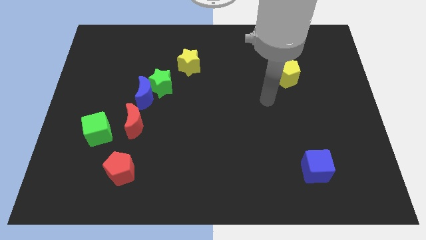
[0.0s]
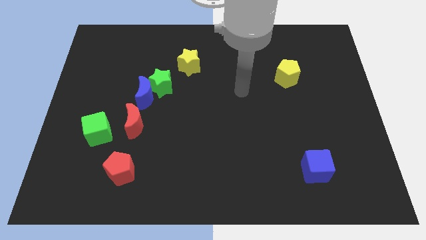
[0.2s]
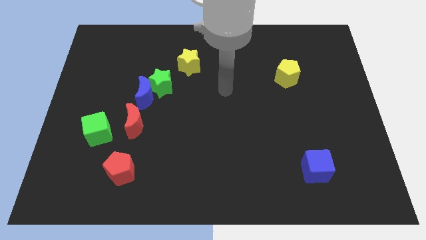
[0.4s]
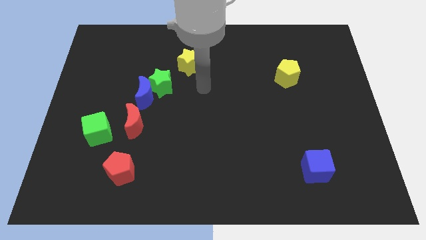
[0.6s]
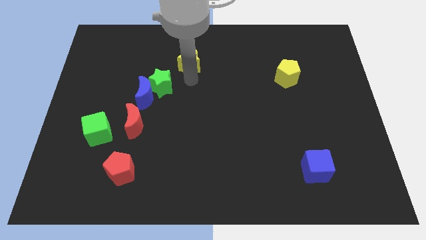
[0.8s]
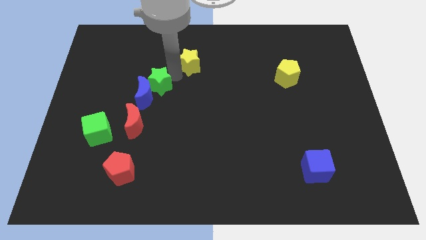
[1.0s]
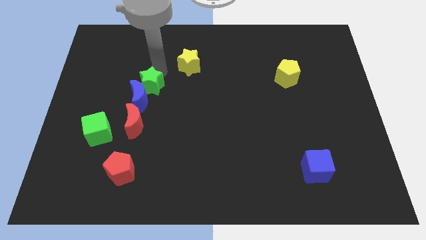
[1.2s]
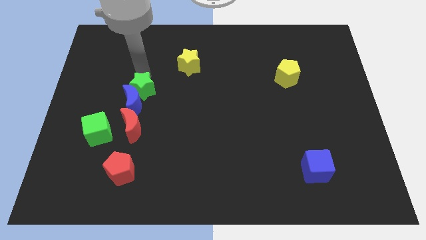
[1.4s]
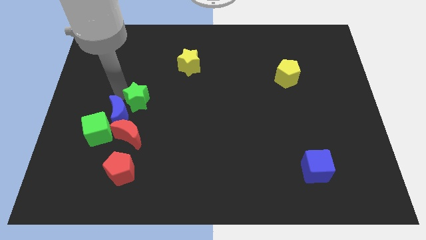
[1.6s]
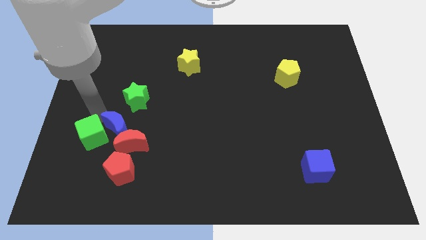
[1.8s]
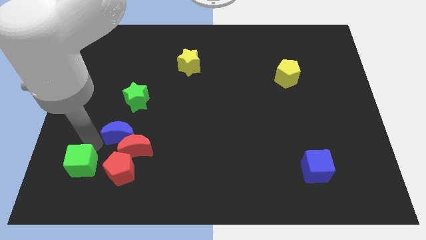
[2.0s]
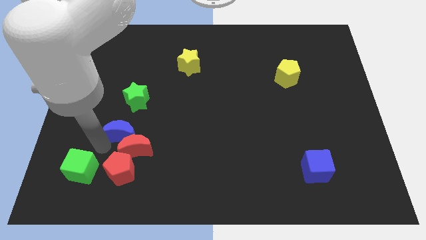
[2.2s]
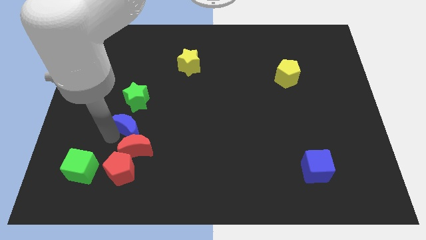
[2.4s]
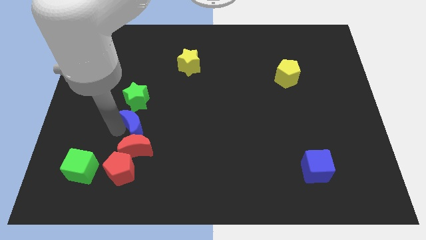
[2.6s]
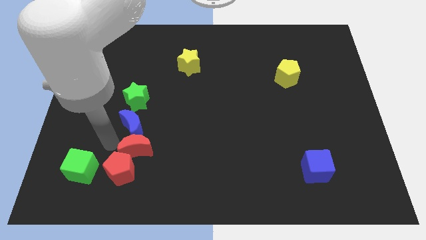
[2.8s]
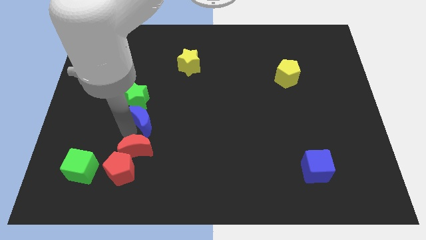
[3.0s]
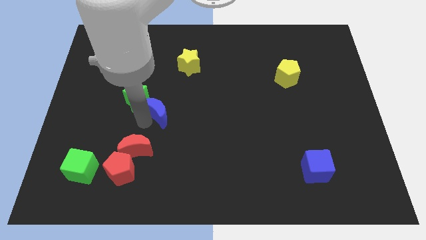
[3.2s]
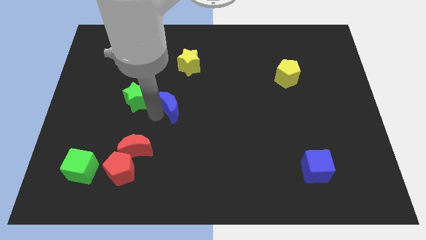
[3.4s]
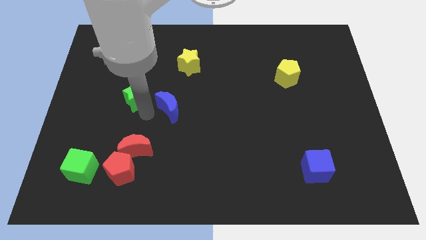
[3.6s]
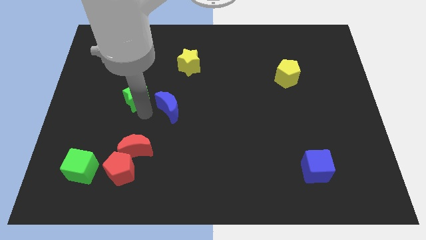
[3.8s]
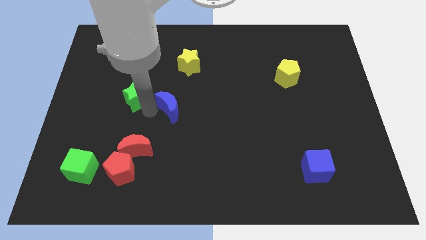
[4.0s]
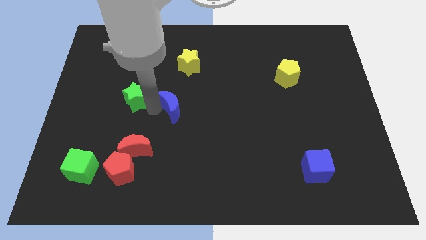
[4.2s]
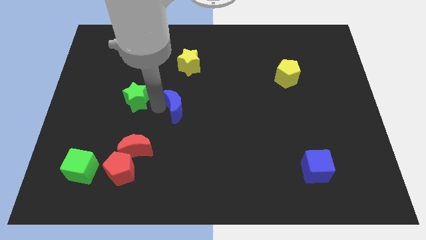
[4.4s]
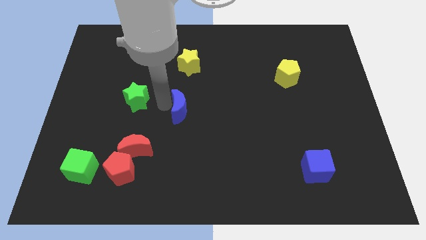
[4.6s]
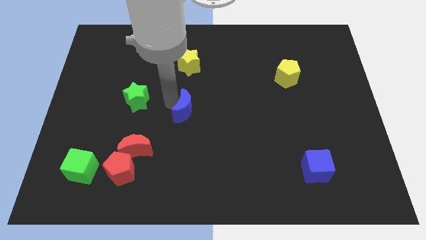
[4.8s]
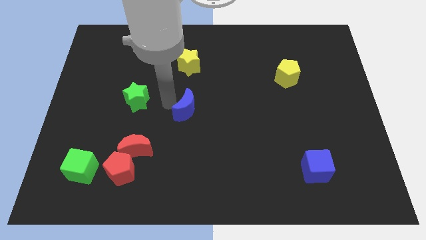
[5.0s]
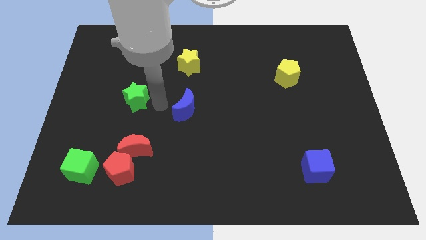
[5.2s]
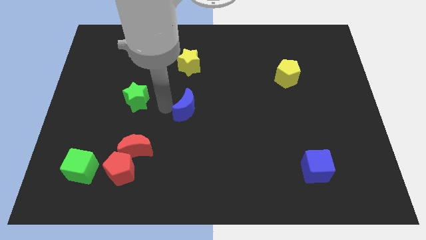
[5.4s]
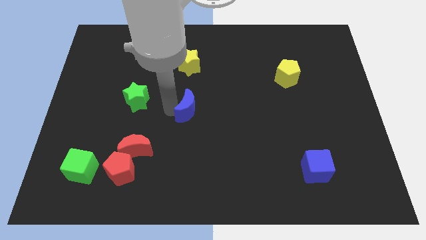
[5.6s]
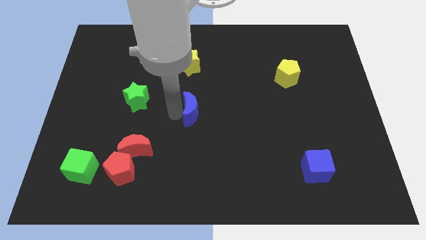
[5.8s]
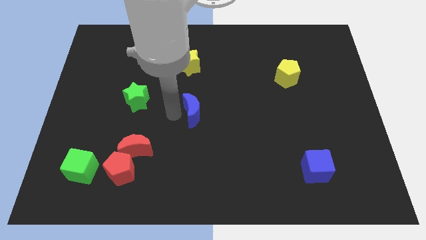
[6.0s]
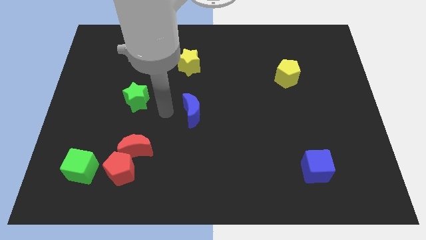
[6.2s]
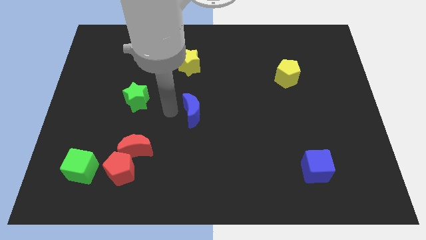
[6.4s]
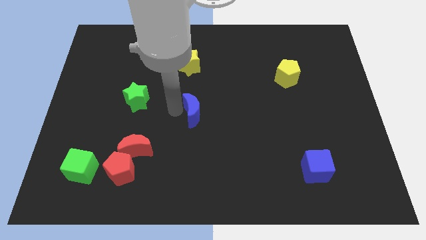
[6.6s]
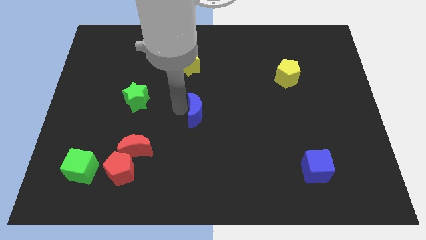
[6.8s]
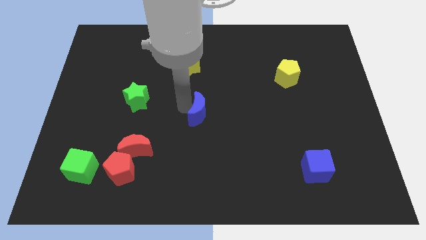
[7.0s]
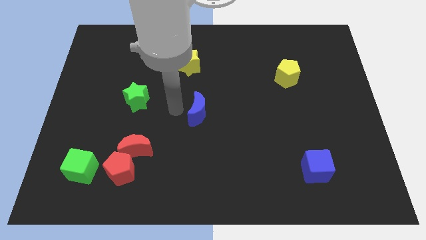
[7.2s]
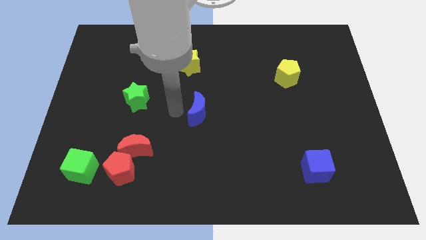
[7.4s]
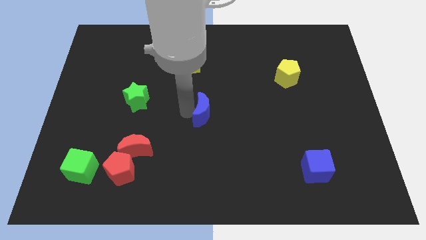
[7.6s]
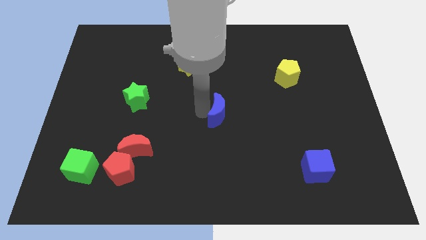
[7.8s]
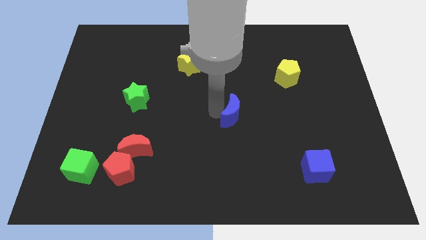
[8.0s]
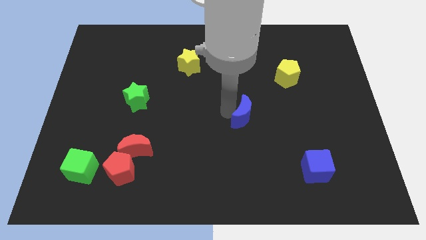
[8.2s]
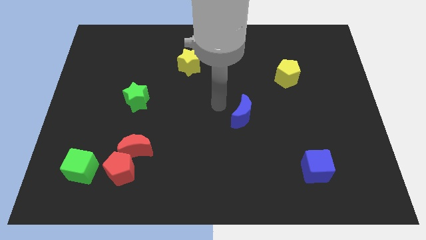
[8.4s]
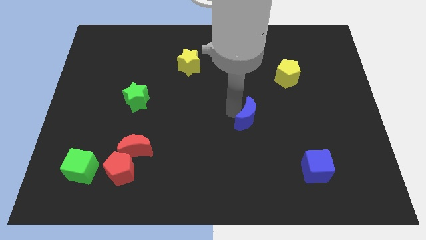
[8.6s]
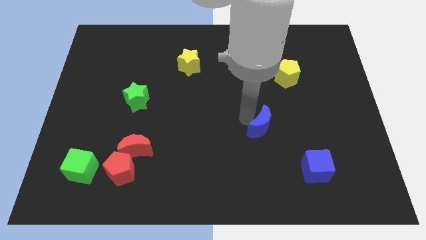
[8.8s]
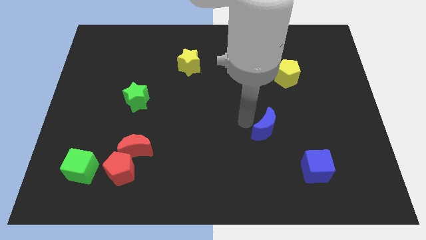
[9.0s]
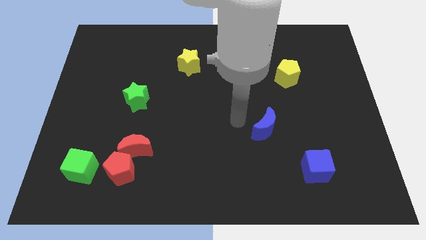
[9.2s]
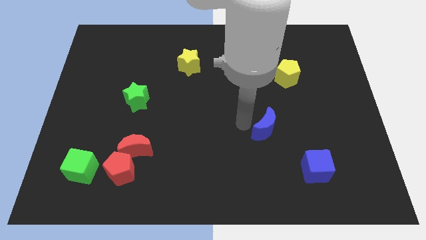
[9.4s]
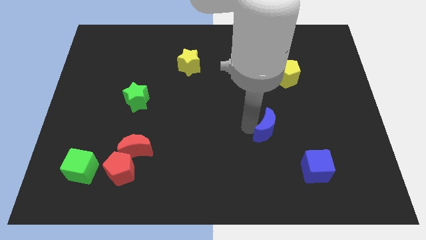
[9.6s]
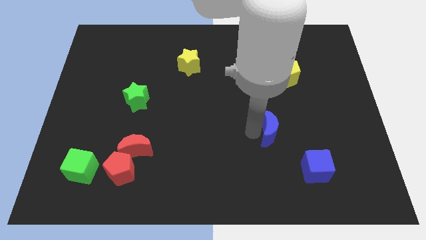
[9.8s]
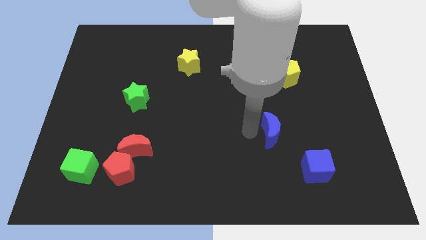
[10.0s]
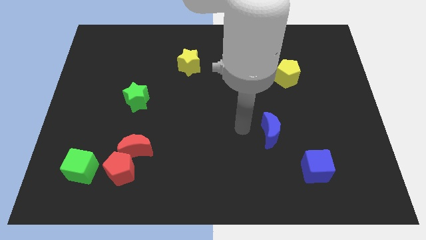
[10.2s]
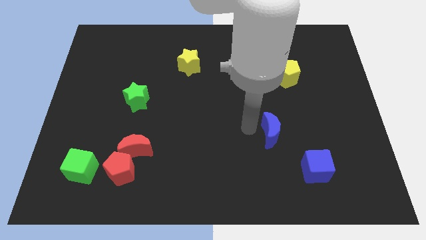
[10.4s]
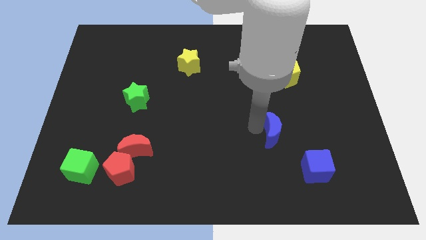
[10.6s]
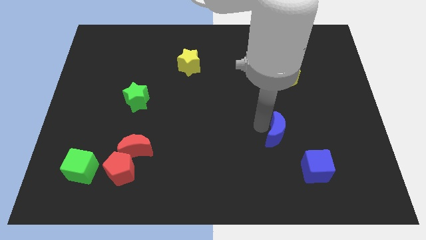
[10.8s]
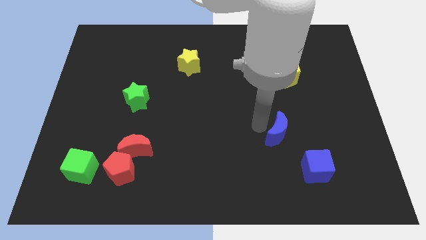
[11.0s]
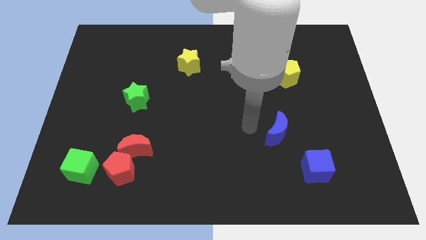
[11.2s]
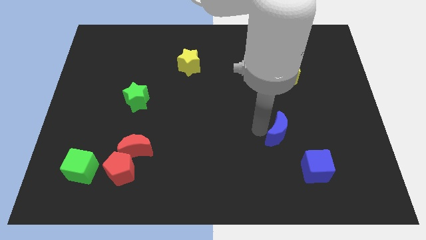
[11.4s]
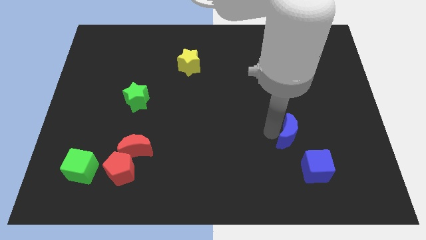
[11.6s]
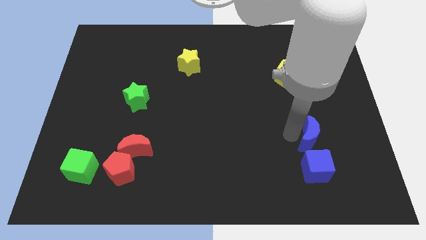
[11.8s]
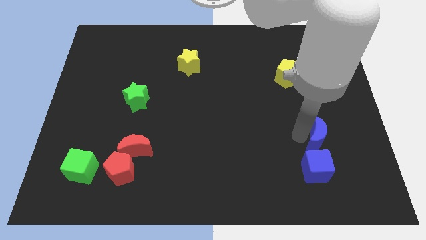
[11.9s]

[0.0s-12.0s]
slide the blue moon diagonally up and to the right of the blue cube
